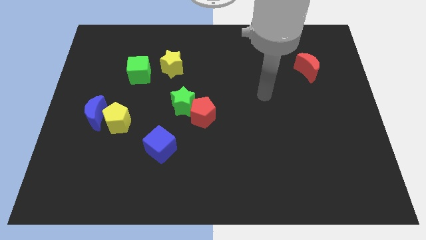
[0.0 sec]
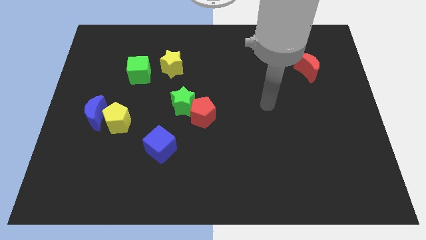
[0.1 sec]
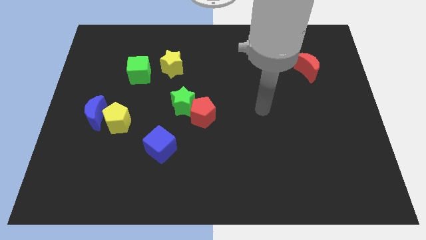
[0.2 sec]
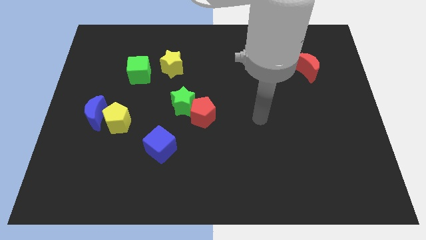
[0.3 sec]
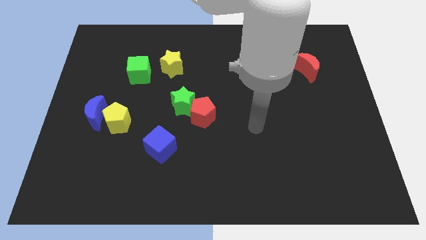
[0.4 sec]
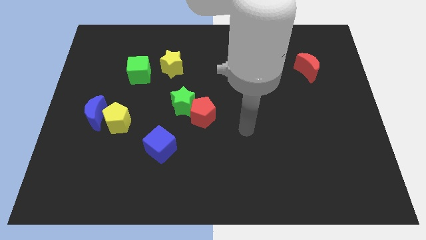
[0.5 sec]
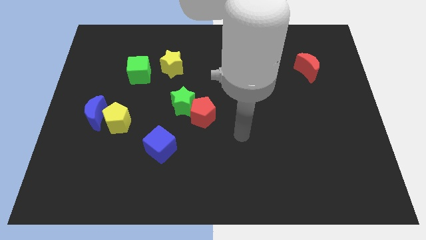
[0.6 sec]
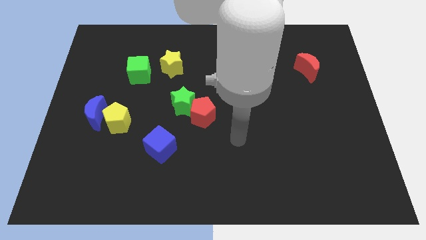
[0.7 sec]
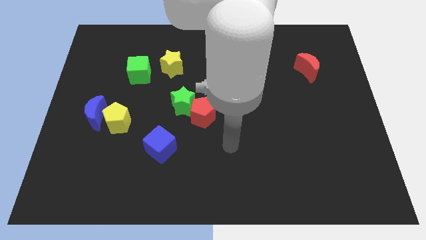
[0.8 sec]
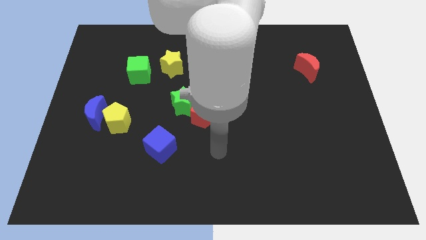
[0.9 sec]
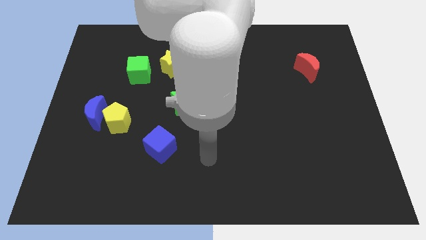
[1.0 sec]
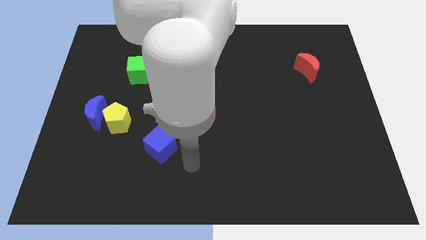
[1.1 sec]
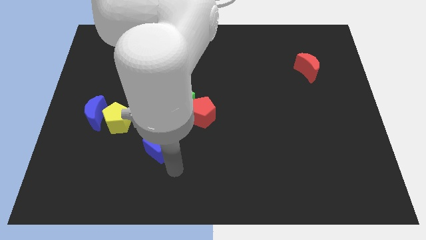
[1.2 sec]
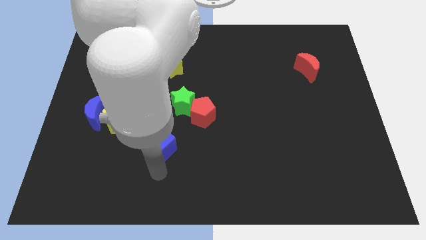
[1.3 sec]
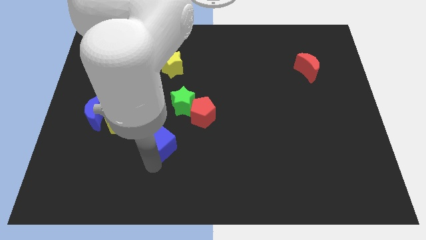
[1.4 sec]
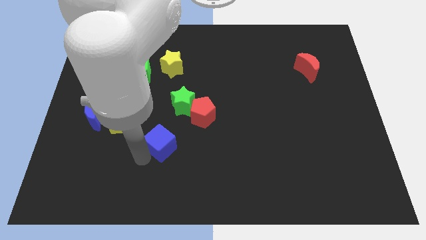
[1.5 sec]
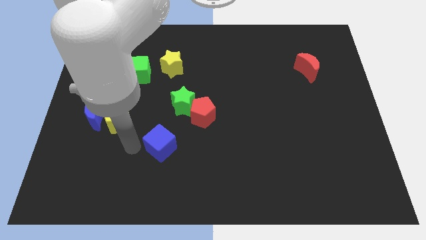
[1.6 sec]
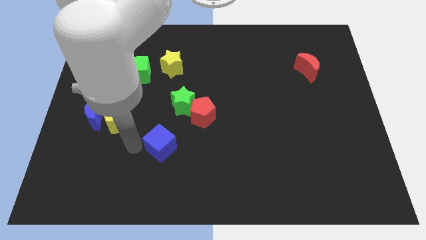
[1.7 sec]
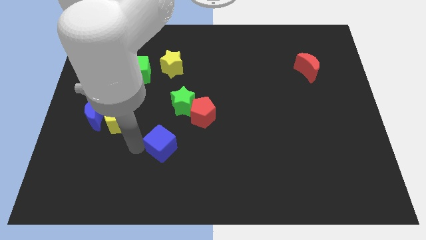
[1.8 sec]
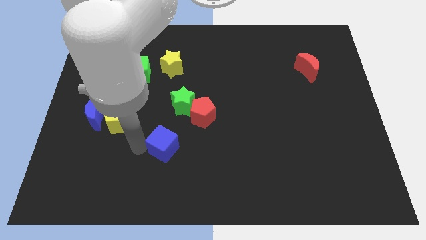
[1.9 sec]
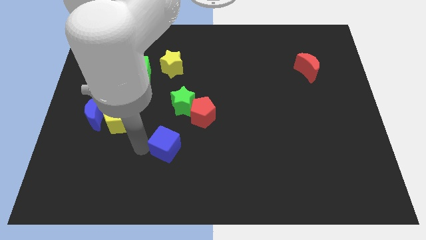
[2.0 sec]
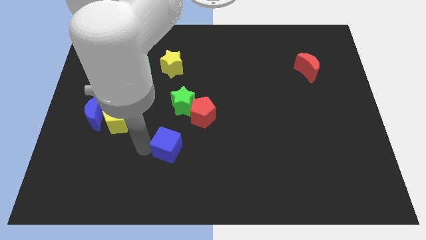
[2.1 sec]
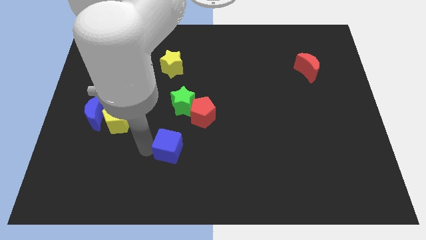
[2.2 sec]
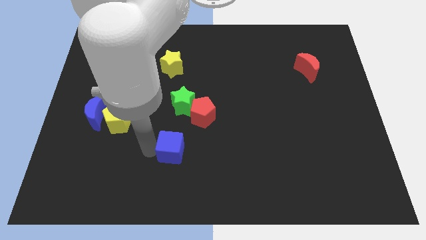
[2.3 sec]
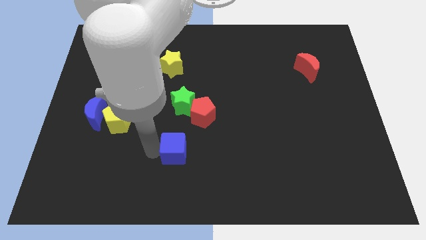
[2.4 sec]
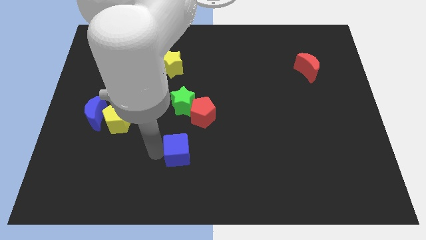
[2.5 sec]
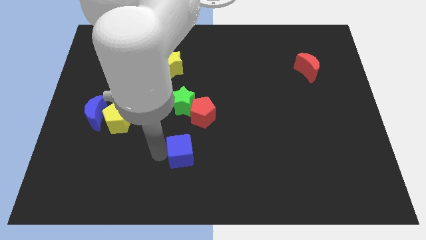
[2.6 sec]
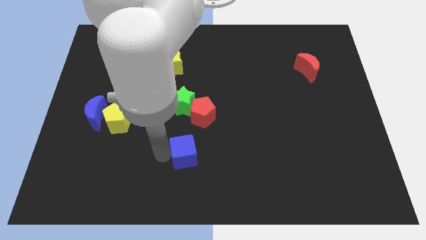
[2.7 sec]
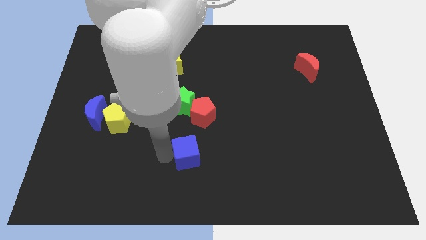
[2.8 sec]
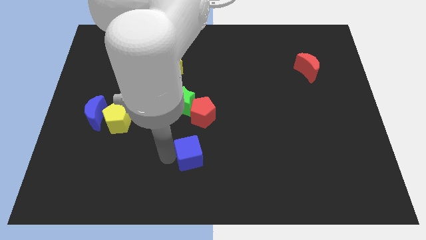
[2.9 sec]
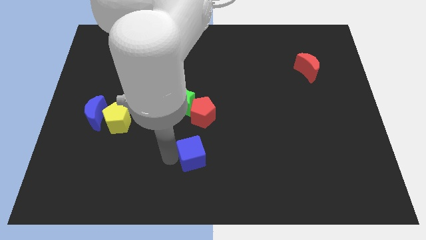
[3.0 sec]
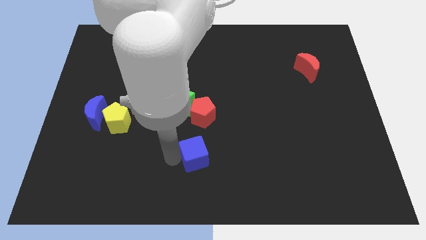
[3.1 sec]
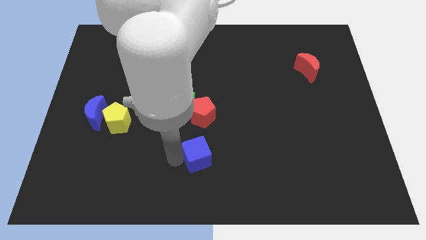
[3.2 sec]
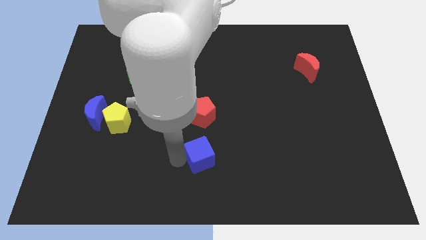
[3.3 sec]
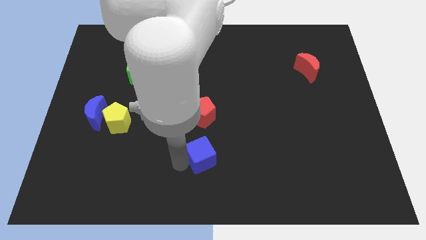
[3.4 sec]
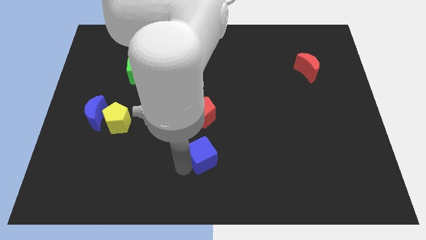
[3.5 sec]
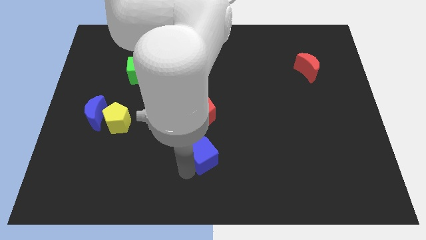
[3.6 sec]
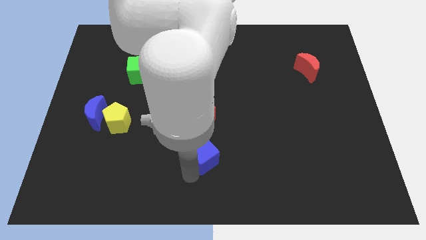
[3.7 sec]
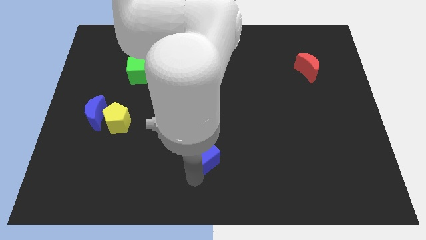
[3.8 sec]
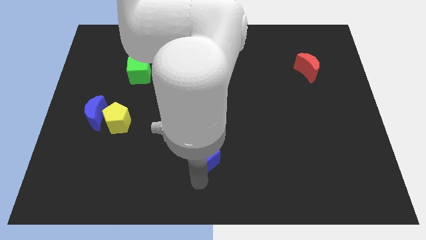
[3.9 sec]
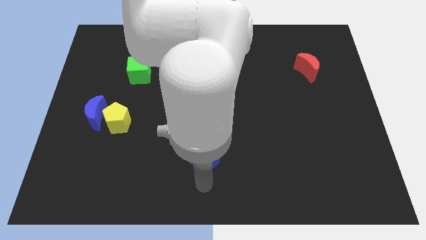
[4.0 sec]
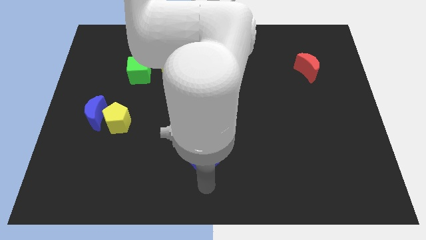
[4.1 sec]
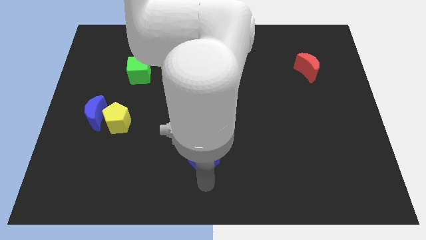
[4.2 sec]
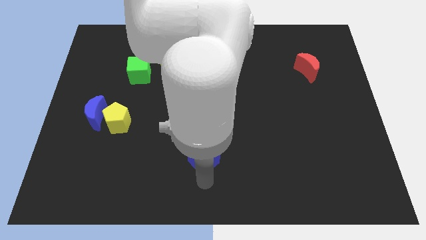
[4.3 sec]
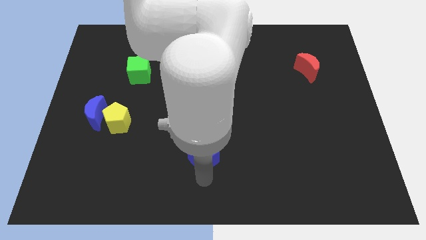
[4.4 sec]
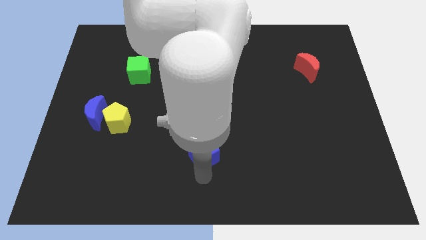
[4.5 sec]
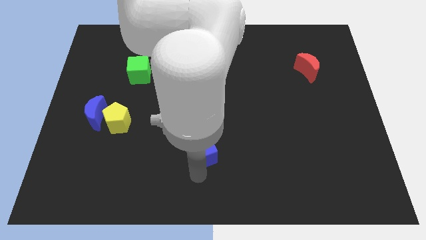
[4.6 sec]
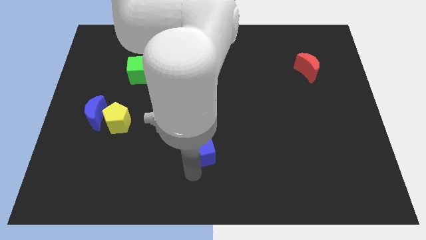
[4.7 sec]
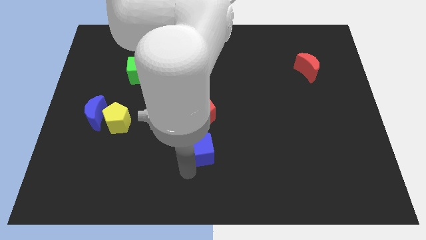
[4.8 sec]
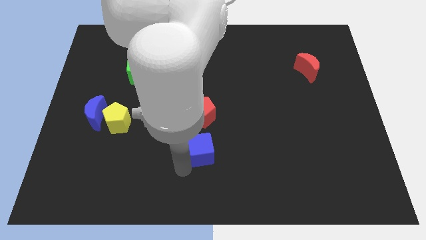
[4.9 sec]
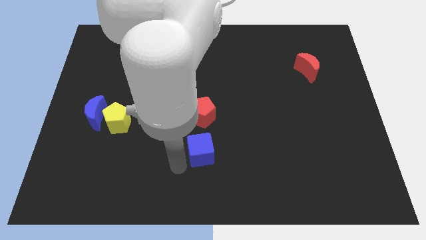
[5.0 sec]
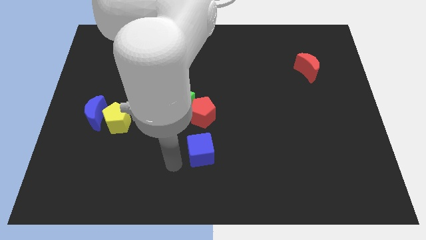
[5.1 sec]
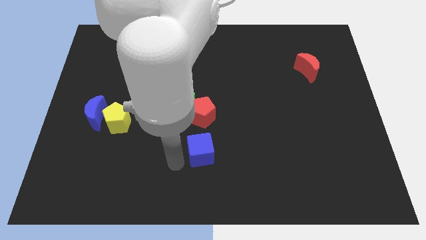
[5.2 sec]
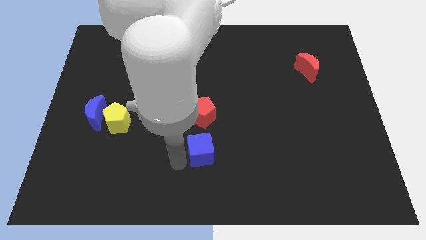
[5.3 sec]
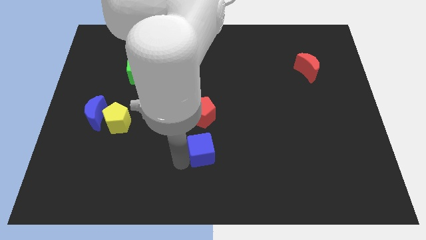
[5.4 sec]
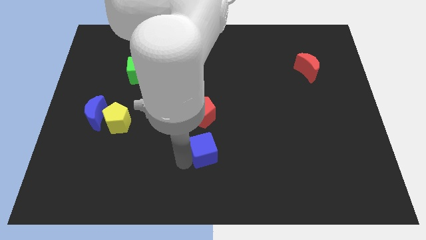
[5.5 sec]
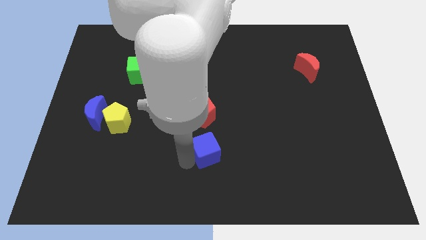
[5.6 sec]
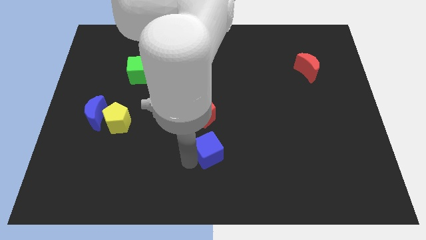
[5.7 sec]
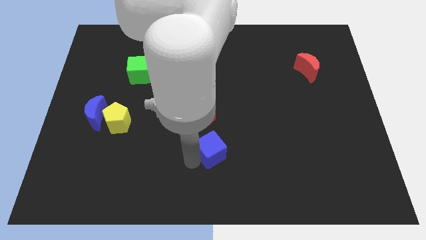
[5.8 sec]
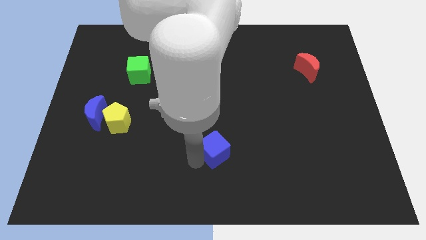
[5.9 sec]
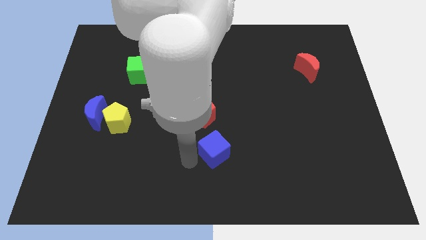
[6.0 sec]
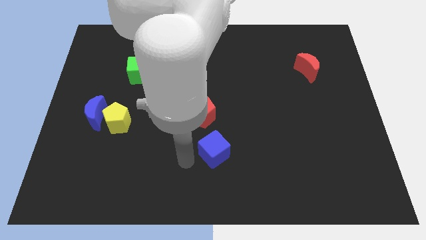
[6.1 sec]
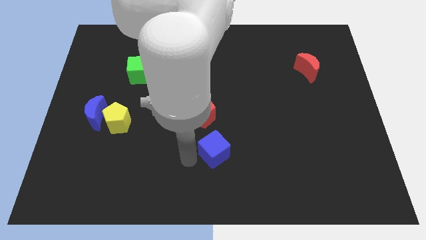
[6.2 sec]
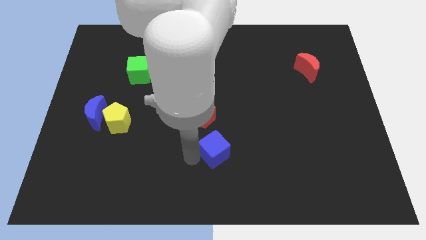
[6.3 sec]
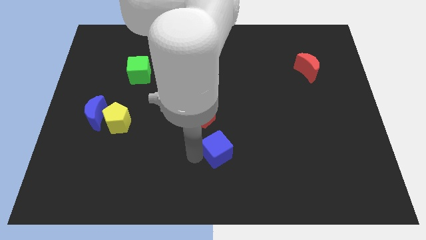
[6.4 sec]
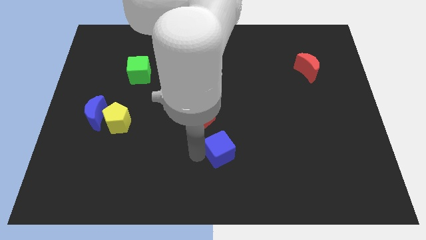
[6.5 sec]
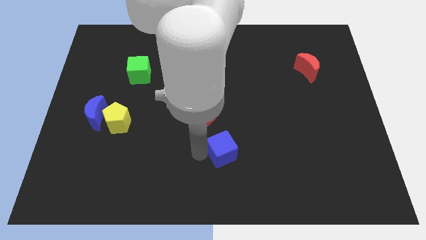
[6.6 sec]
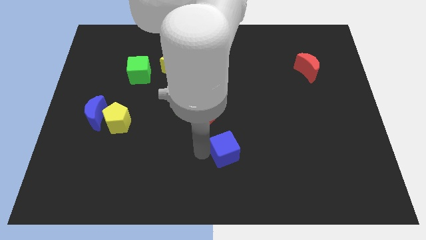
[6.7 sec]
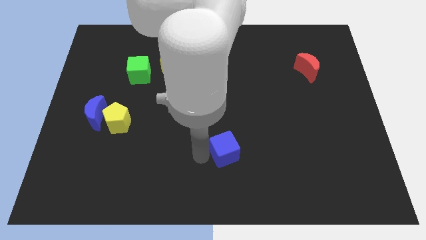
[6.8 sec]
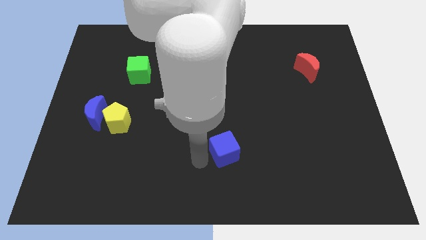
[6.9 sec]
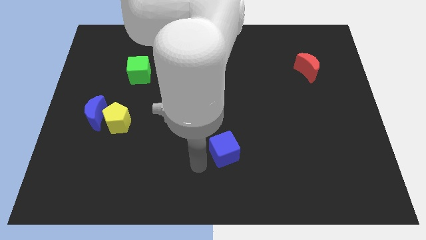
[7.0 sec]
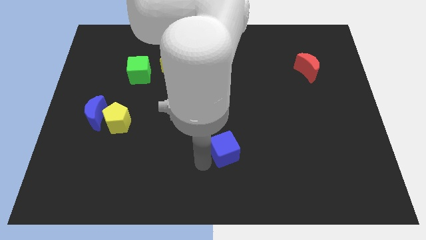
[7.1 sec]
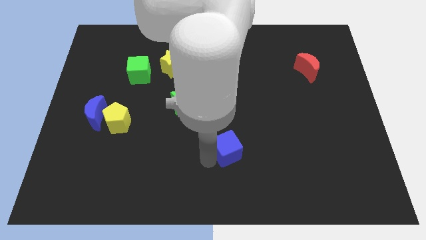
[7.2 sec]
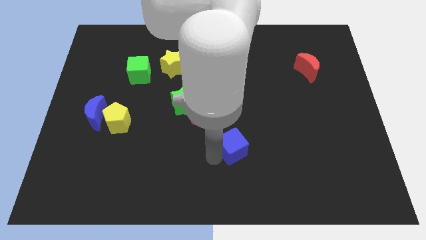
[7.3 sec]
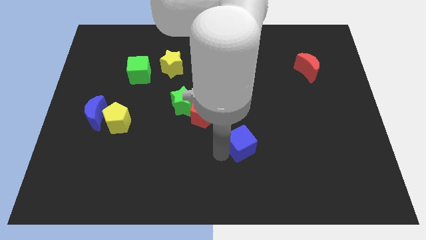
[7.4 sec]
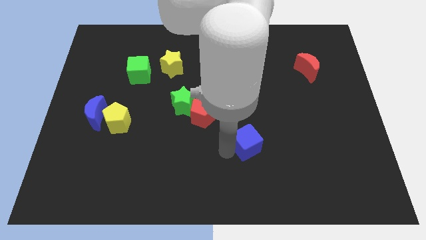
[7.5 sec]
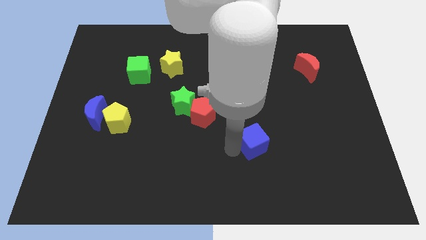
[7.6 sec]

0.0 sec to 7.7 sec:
slide the blue cube to the right

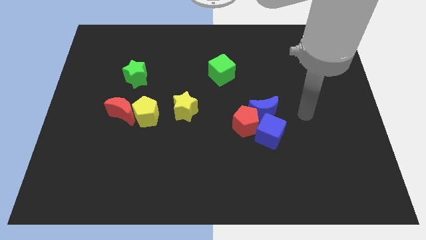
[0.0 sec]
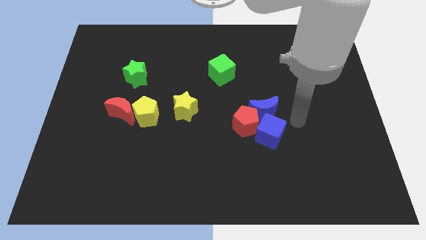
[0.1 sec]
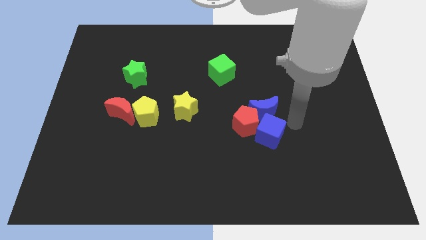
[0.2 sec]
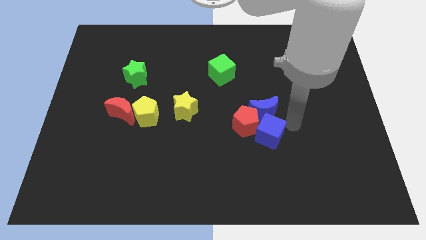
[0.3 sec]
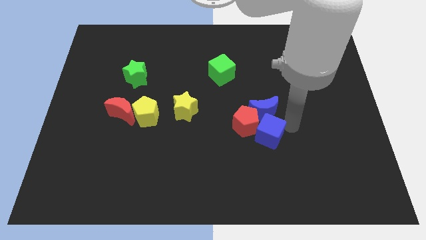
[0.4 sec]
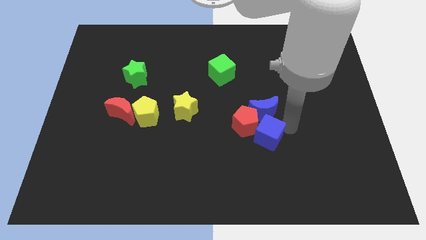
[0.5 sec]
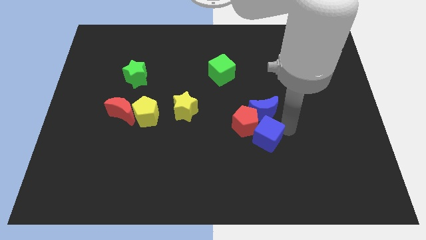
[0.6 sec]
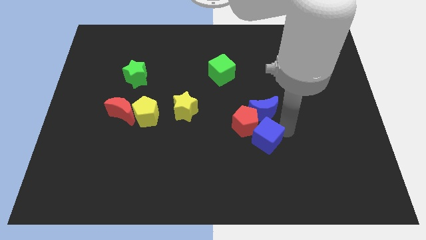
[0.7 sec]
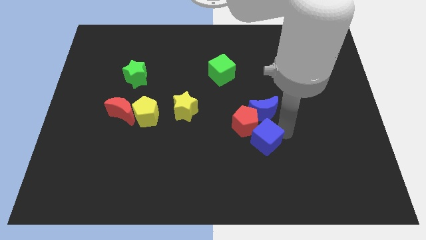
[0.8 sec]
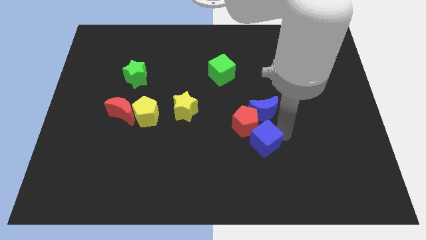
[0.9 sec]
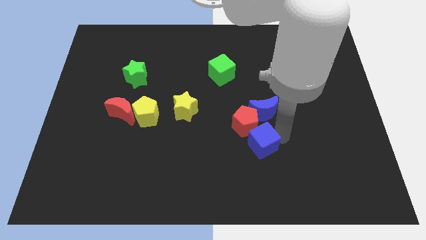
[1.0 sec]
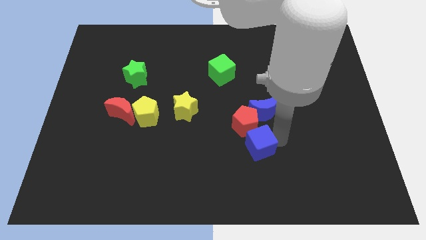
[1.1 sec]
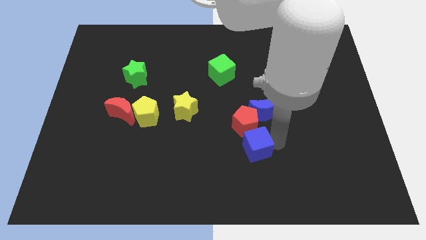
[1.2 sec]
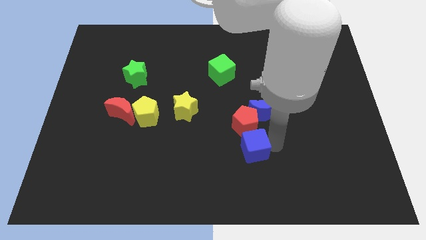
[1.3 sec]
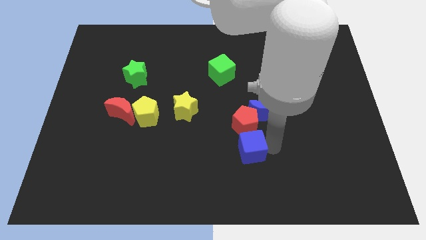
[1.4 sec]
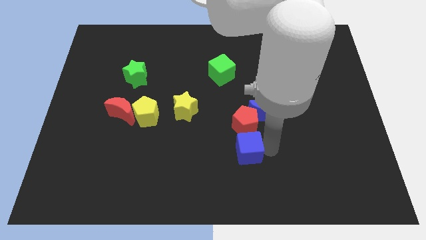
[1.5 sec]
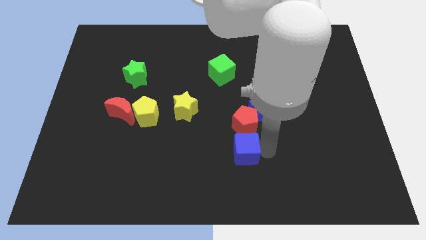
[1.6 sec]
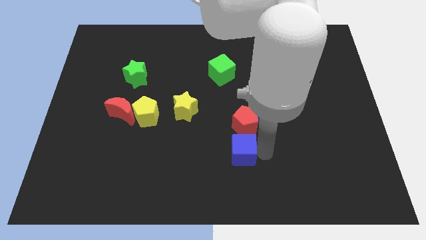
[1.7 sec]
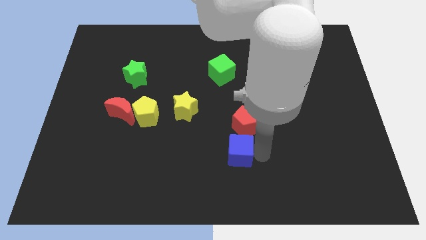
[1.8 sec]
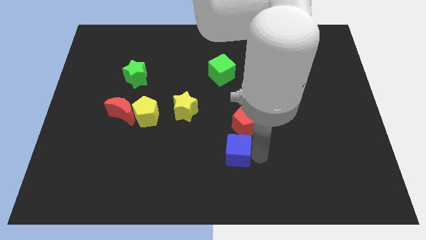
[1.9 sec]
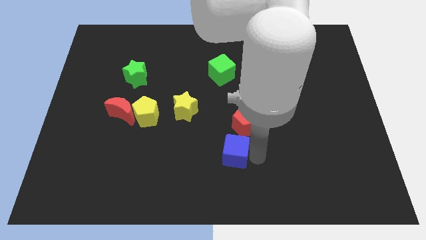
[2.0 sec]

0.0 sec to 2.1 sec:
slightly slide the blue cube left
